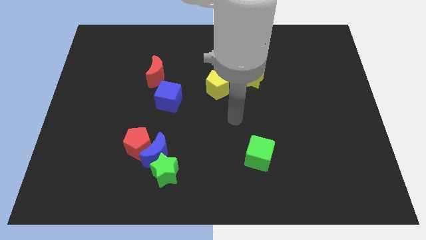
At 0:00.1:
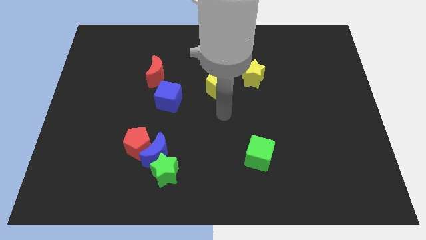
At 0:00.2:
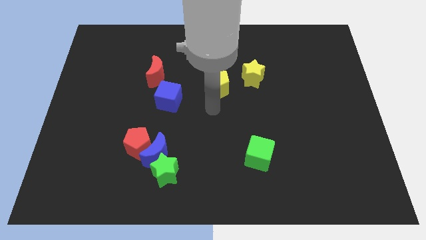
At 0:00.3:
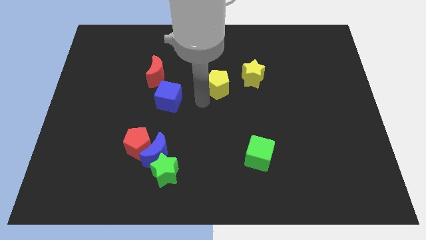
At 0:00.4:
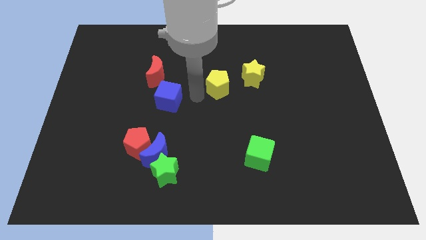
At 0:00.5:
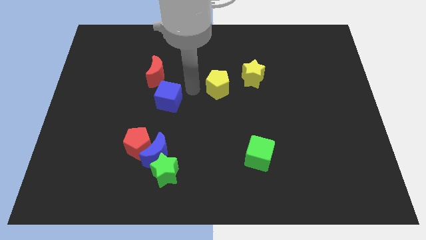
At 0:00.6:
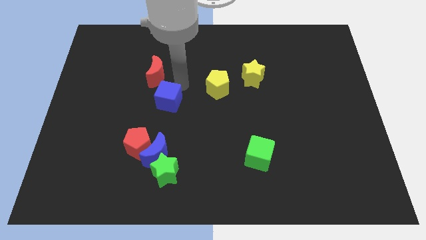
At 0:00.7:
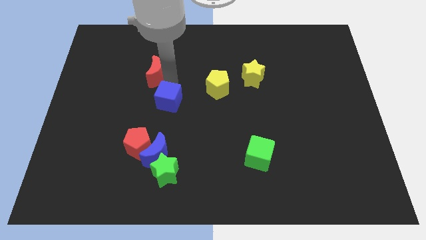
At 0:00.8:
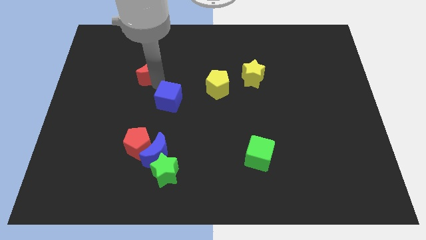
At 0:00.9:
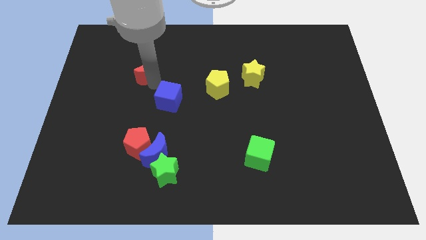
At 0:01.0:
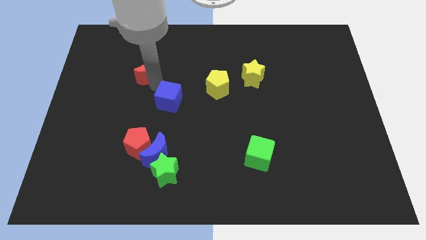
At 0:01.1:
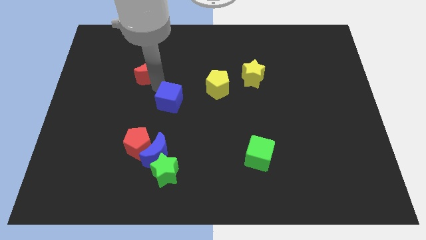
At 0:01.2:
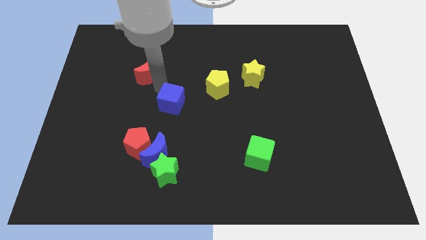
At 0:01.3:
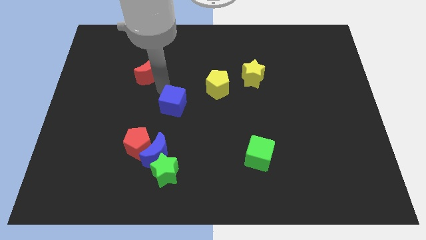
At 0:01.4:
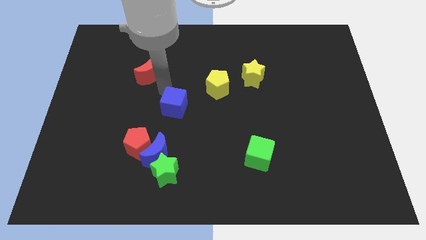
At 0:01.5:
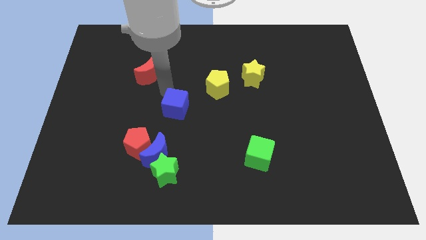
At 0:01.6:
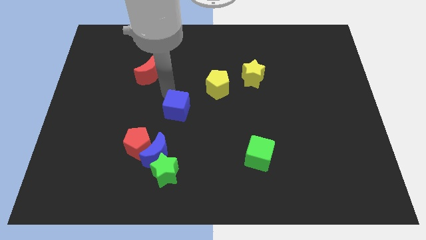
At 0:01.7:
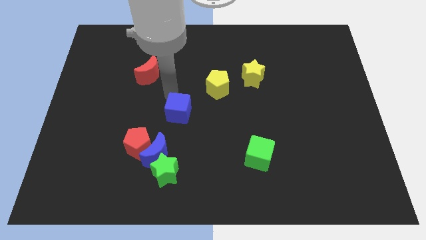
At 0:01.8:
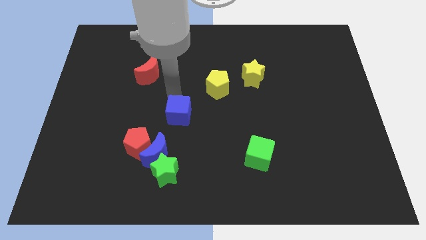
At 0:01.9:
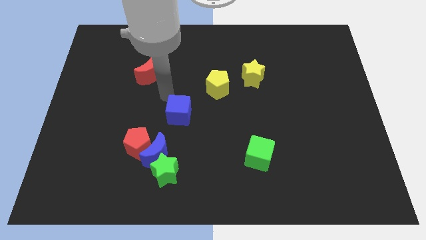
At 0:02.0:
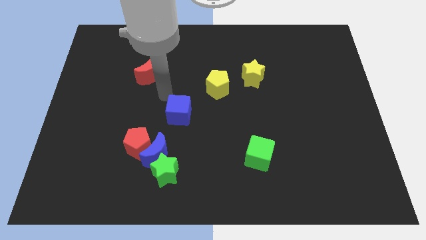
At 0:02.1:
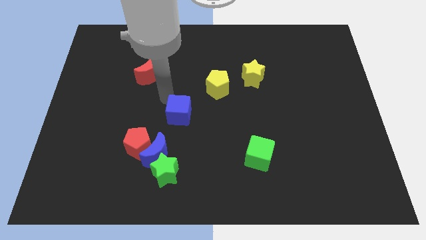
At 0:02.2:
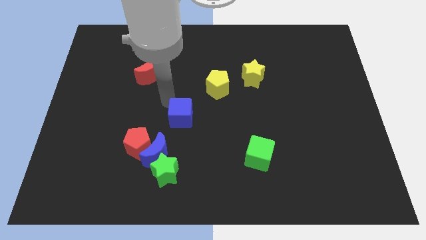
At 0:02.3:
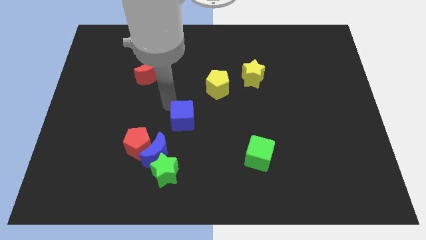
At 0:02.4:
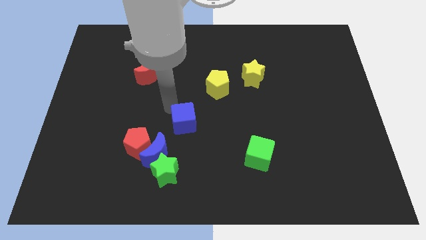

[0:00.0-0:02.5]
slightly slide the blue cube diagonally downwards and right

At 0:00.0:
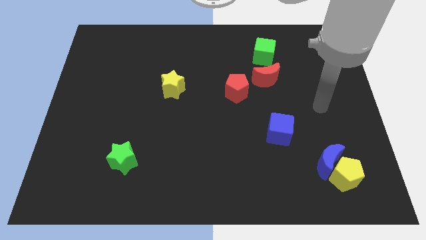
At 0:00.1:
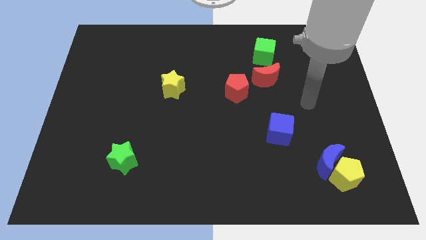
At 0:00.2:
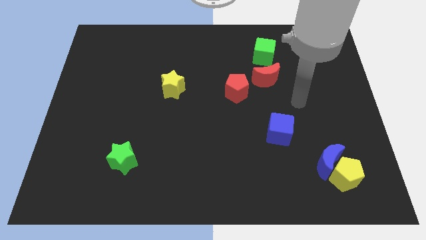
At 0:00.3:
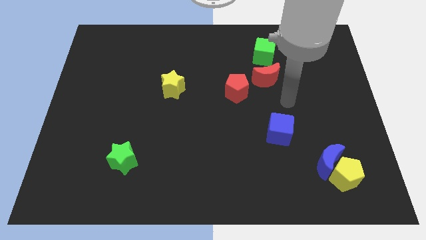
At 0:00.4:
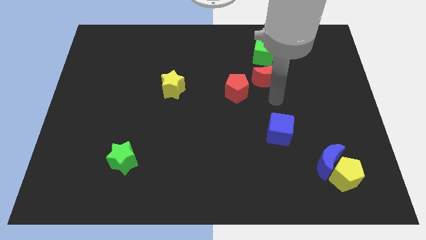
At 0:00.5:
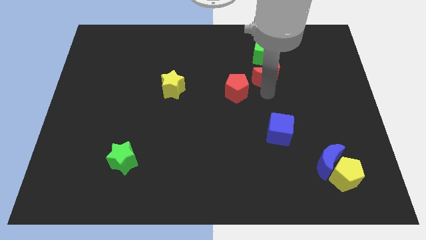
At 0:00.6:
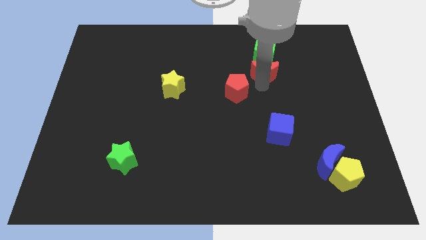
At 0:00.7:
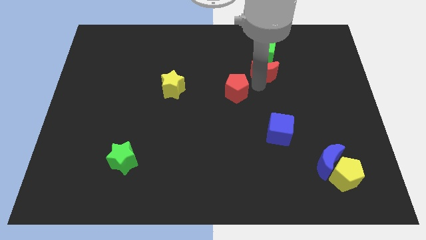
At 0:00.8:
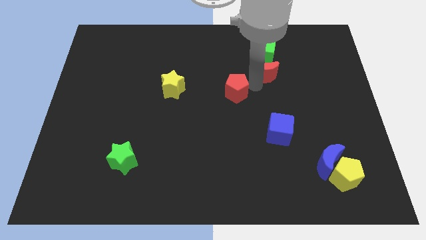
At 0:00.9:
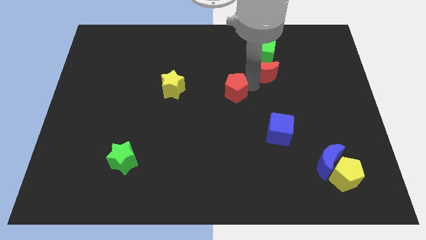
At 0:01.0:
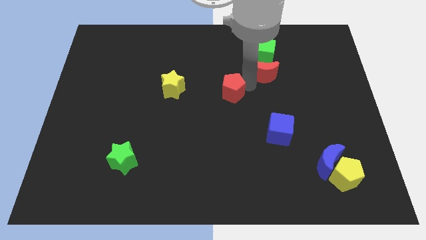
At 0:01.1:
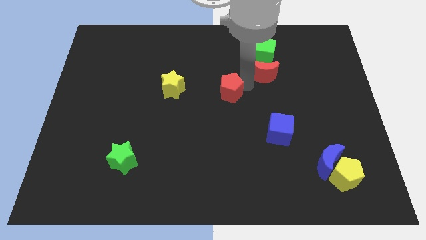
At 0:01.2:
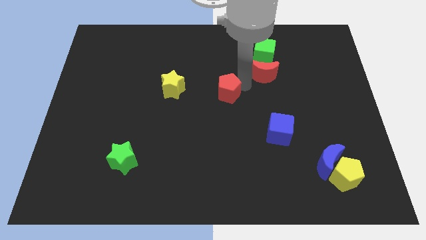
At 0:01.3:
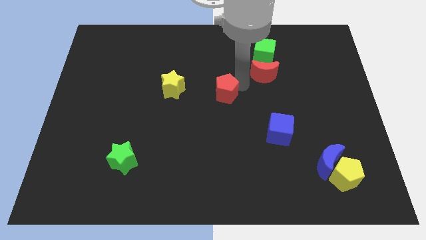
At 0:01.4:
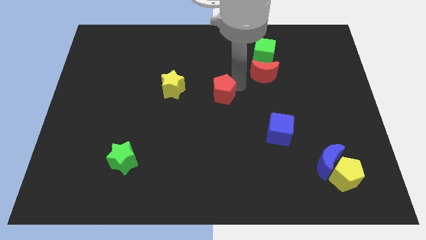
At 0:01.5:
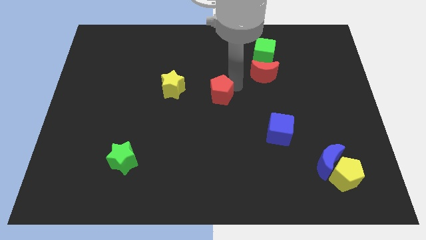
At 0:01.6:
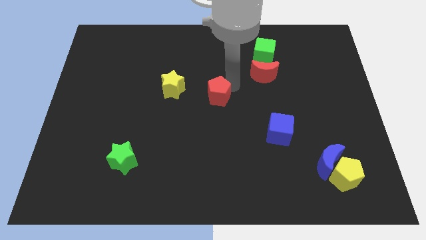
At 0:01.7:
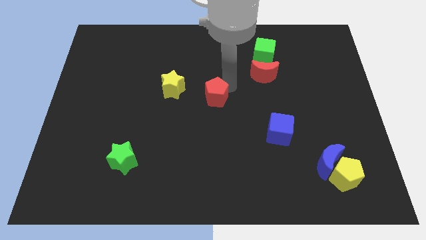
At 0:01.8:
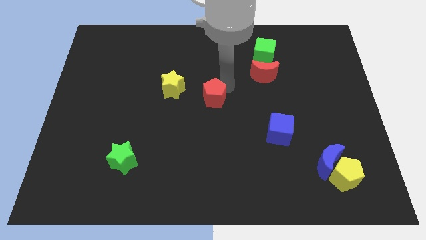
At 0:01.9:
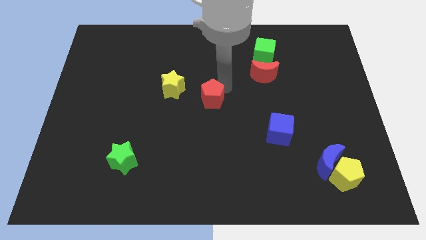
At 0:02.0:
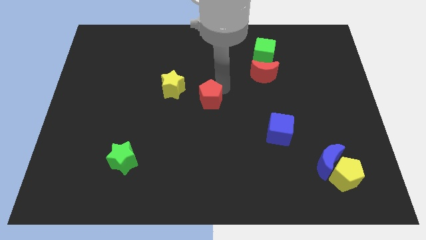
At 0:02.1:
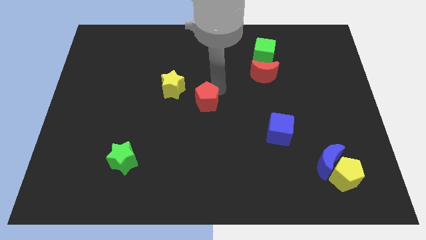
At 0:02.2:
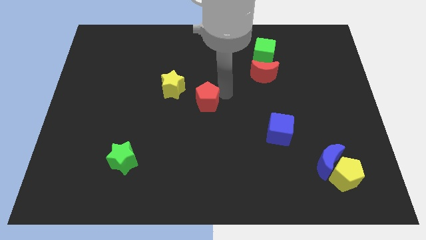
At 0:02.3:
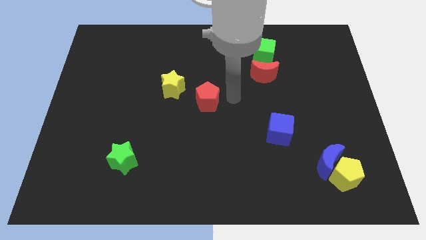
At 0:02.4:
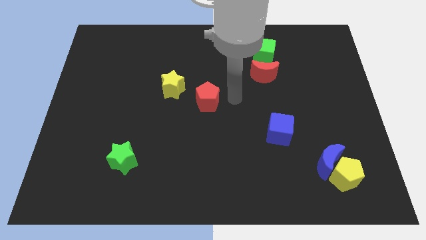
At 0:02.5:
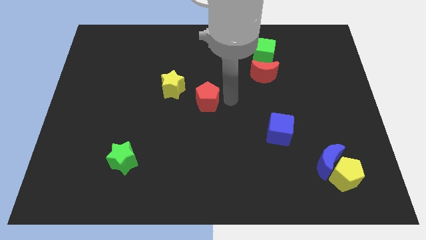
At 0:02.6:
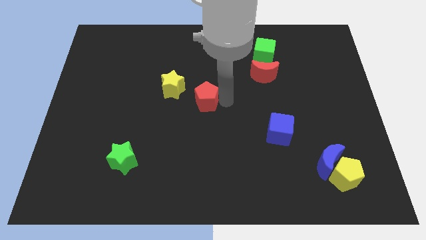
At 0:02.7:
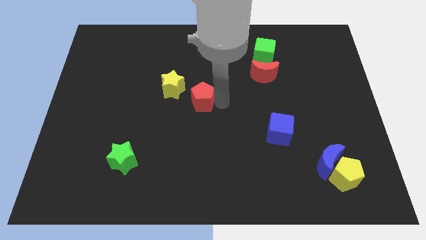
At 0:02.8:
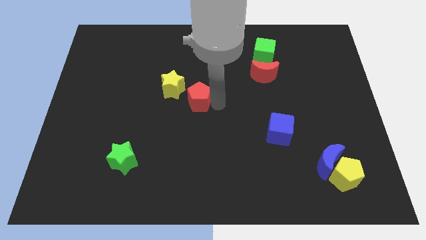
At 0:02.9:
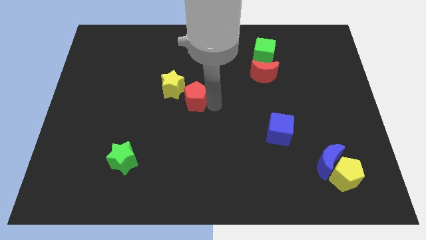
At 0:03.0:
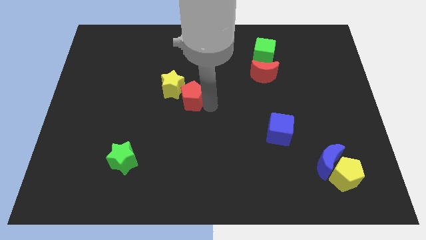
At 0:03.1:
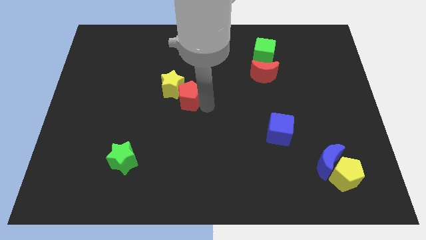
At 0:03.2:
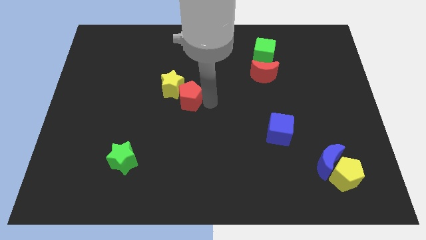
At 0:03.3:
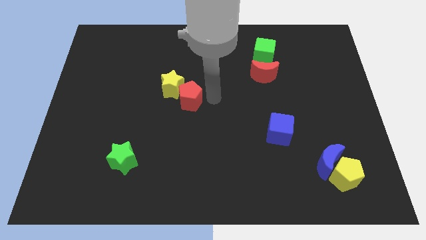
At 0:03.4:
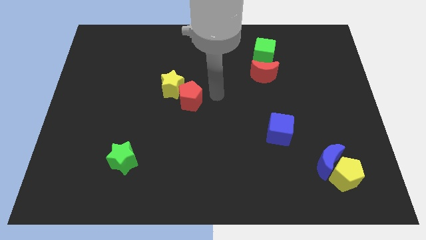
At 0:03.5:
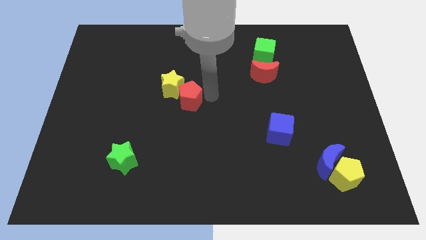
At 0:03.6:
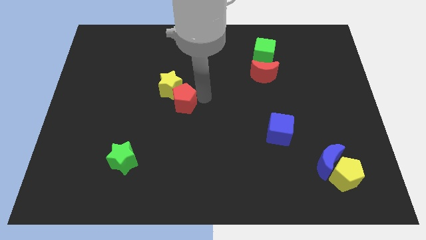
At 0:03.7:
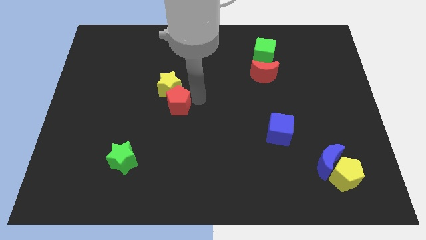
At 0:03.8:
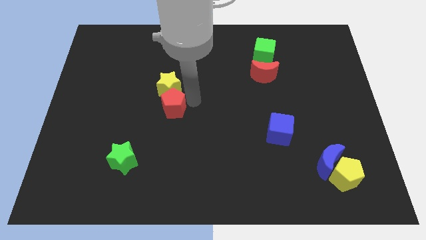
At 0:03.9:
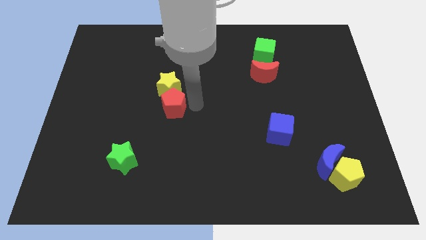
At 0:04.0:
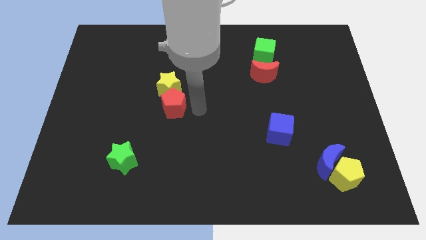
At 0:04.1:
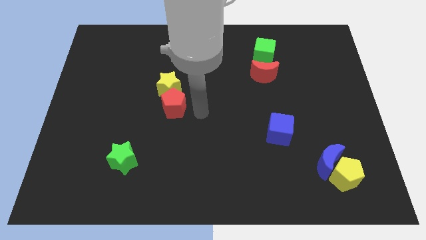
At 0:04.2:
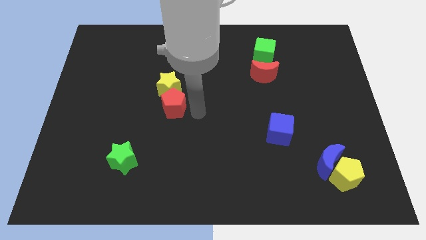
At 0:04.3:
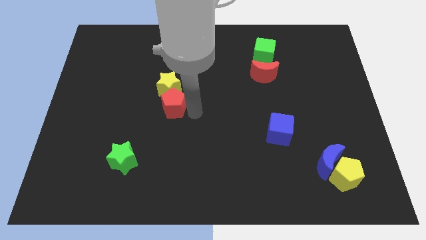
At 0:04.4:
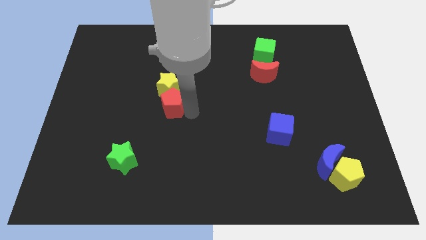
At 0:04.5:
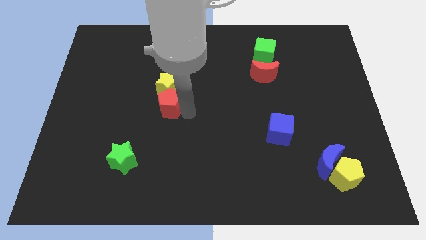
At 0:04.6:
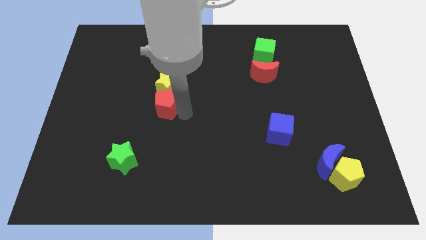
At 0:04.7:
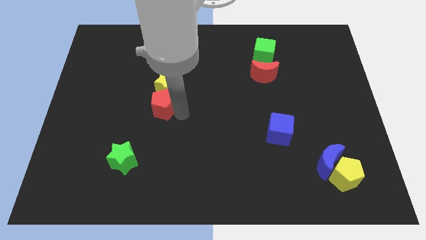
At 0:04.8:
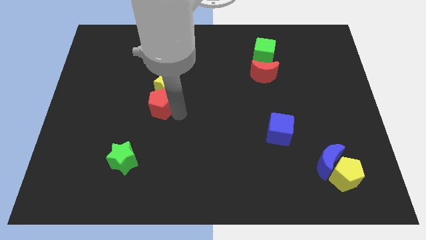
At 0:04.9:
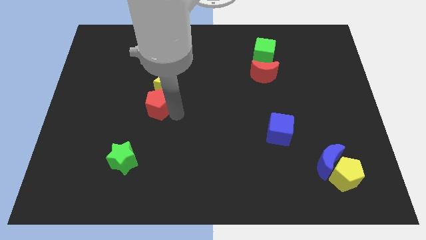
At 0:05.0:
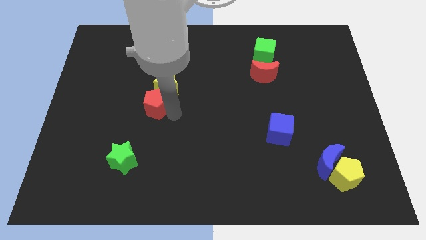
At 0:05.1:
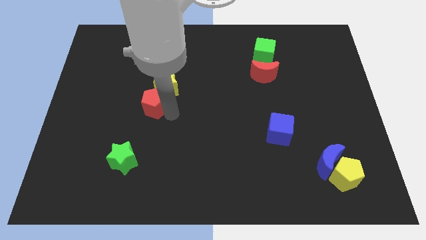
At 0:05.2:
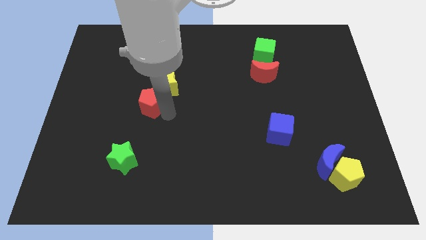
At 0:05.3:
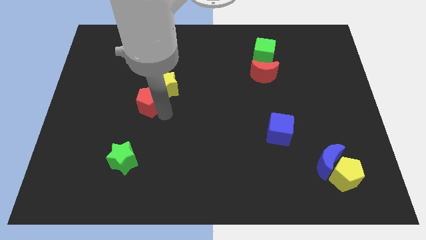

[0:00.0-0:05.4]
move the red pentagon left

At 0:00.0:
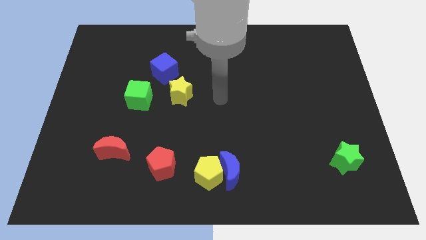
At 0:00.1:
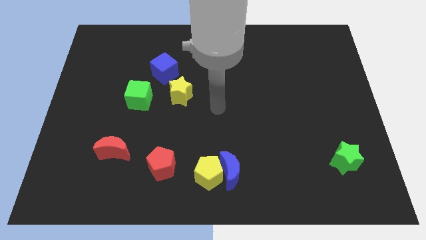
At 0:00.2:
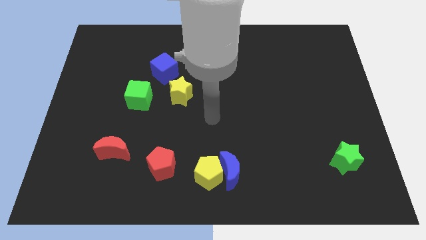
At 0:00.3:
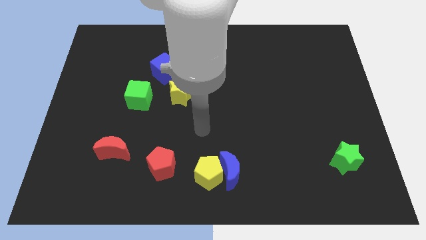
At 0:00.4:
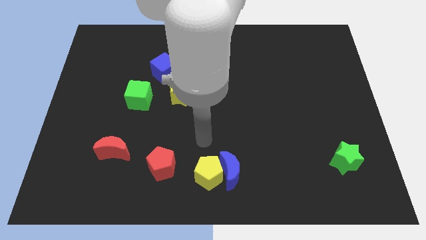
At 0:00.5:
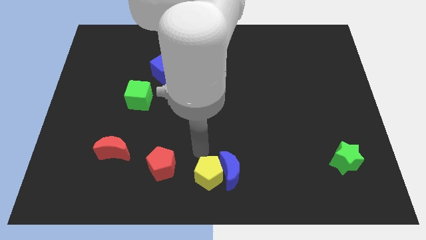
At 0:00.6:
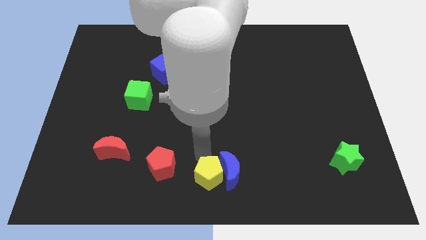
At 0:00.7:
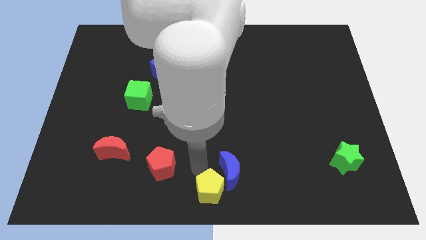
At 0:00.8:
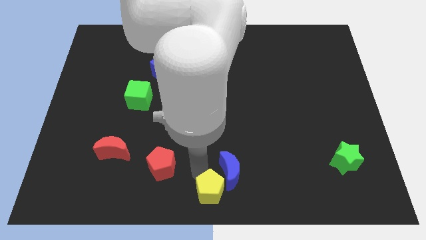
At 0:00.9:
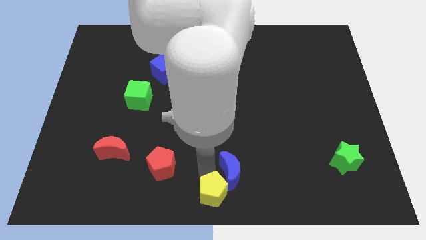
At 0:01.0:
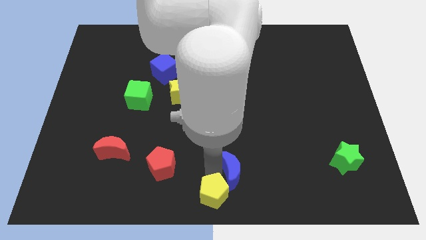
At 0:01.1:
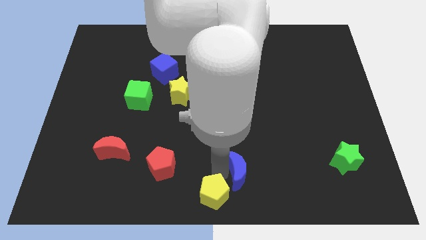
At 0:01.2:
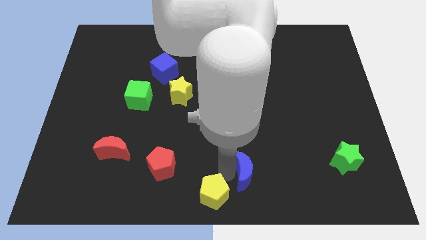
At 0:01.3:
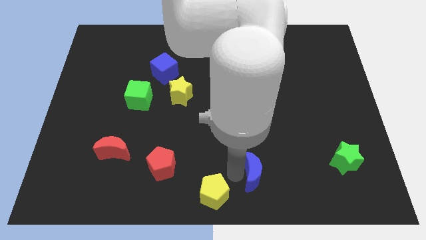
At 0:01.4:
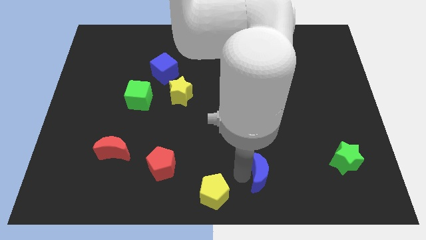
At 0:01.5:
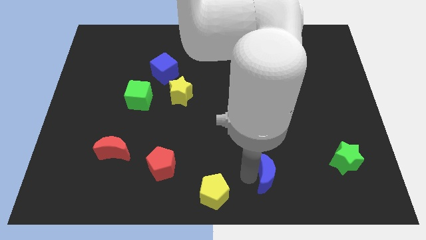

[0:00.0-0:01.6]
slightly move the blue moon to the right
